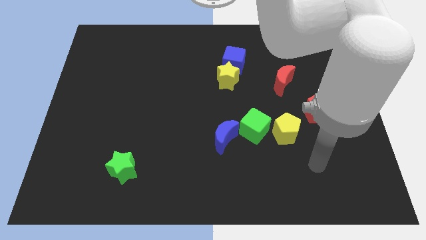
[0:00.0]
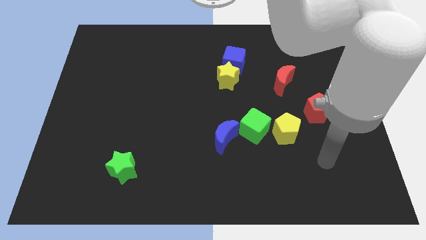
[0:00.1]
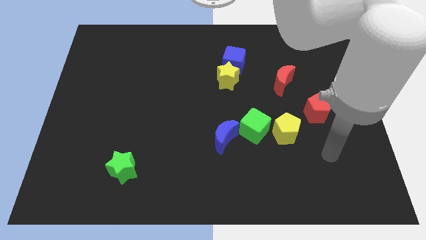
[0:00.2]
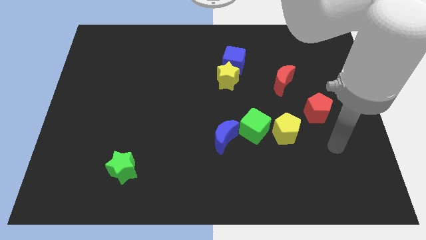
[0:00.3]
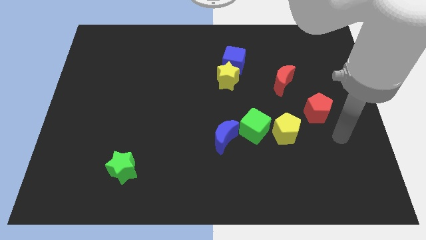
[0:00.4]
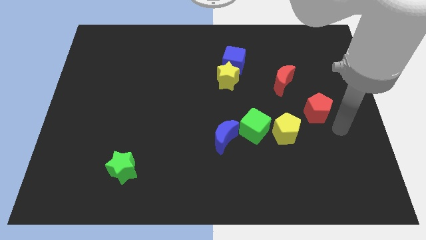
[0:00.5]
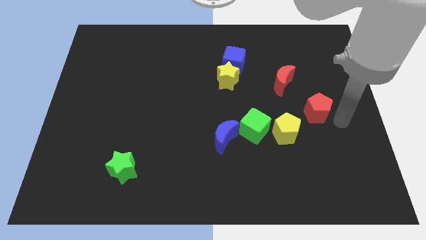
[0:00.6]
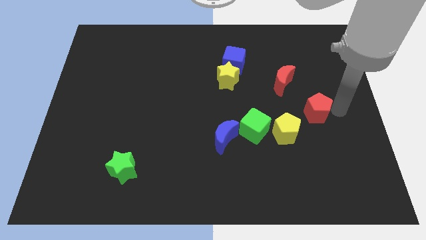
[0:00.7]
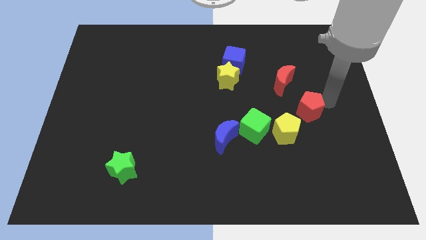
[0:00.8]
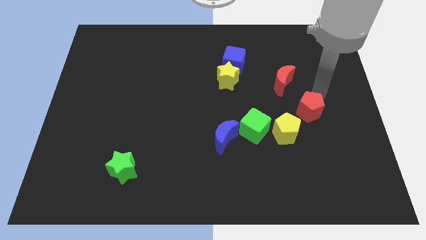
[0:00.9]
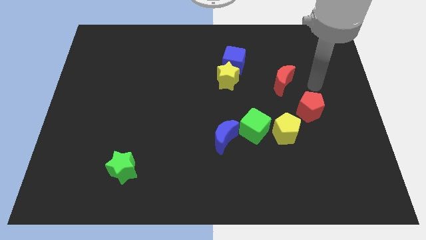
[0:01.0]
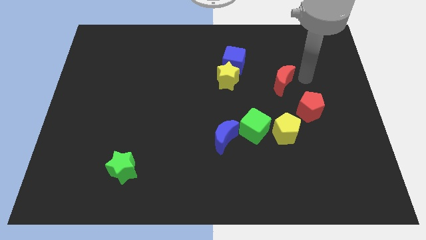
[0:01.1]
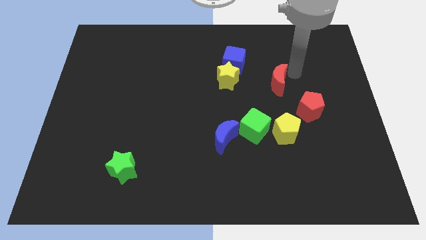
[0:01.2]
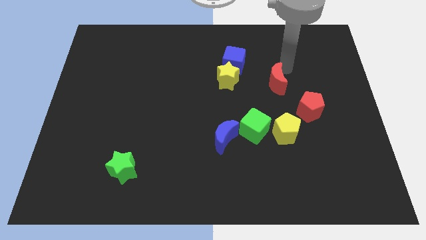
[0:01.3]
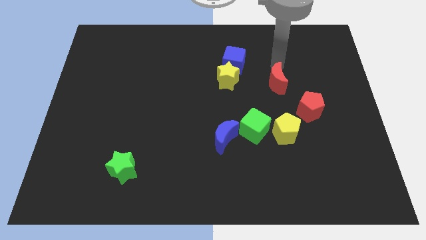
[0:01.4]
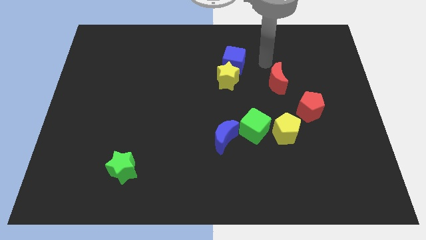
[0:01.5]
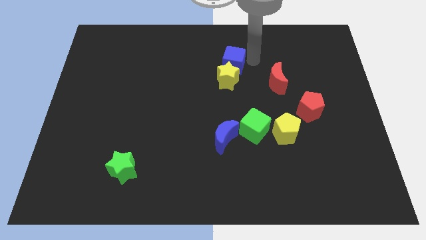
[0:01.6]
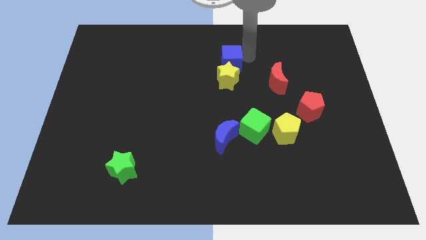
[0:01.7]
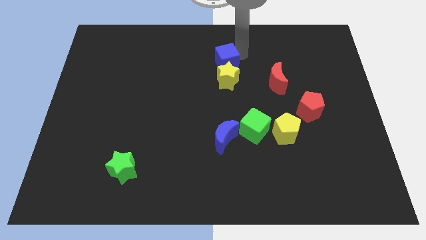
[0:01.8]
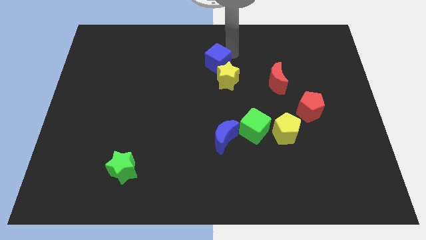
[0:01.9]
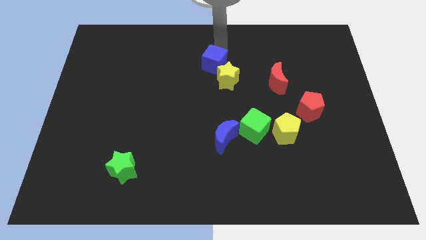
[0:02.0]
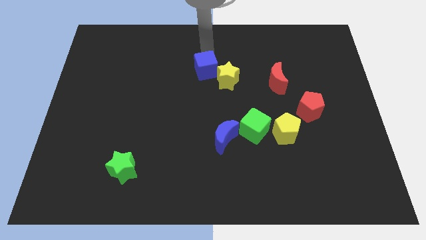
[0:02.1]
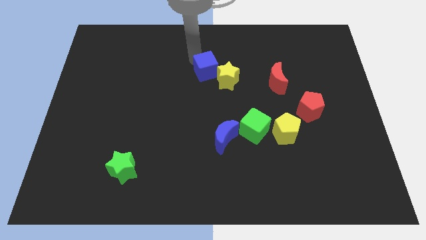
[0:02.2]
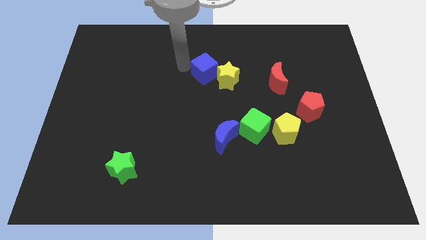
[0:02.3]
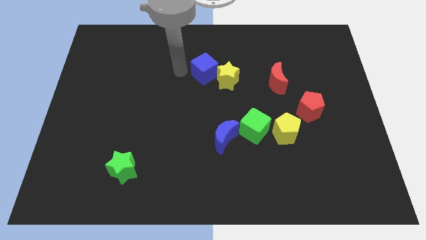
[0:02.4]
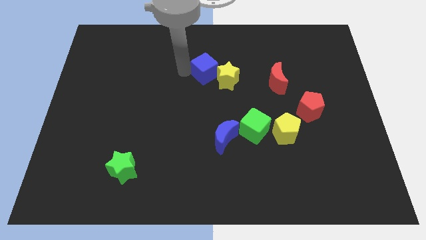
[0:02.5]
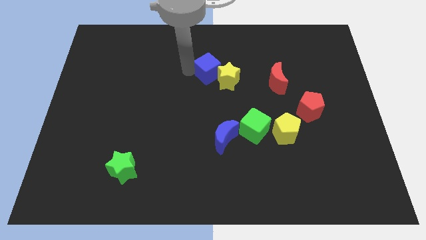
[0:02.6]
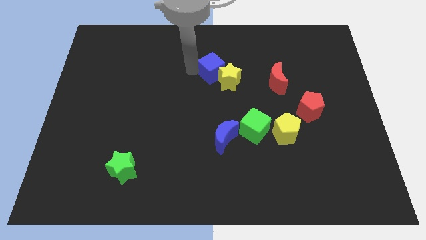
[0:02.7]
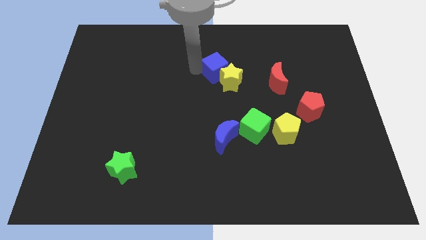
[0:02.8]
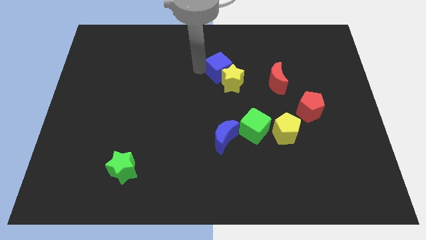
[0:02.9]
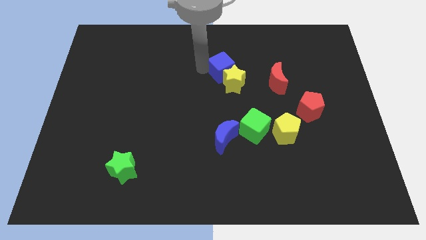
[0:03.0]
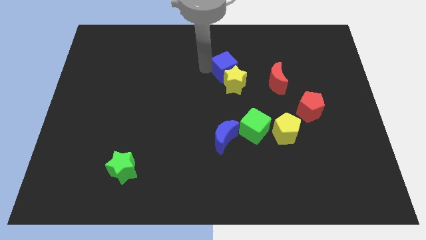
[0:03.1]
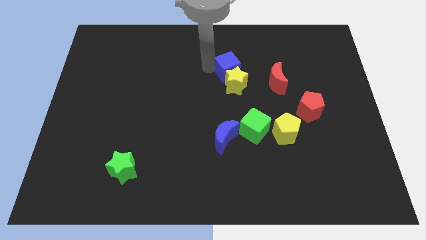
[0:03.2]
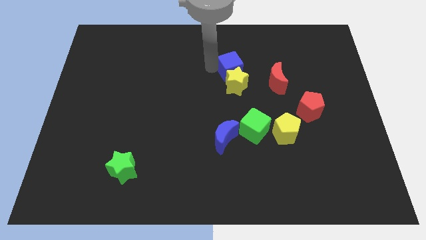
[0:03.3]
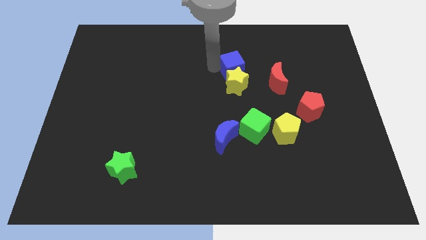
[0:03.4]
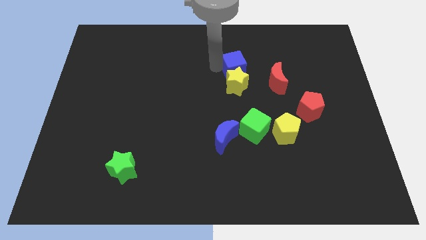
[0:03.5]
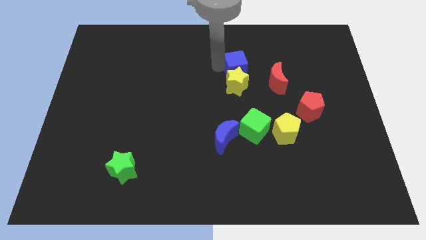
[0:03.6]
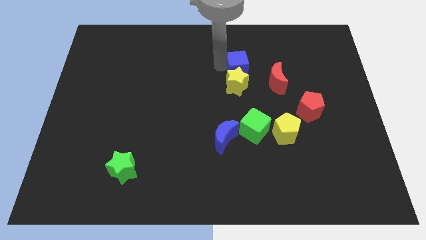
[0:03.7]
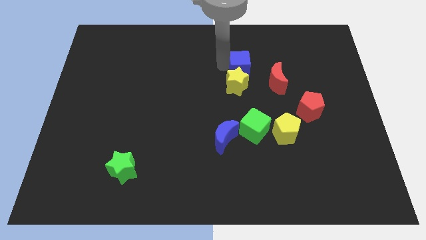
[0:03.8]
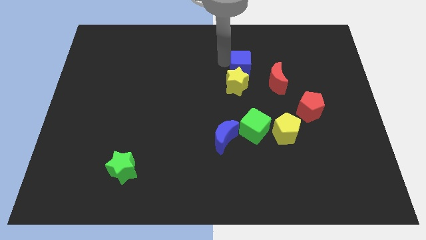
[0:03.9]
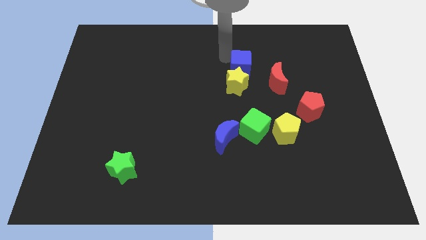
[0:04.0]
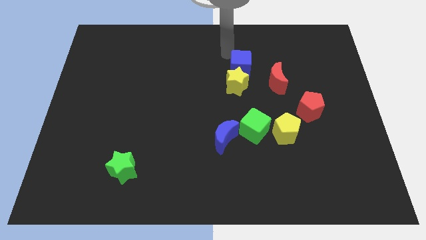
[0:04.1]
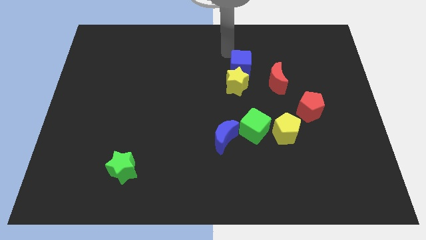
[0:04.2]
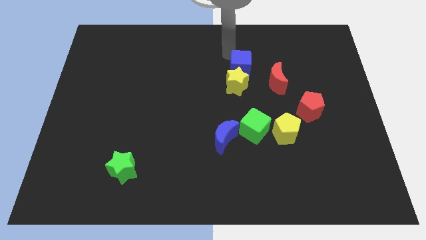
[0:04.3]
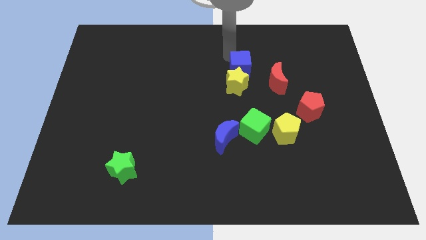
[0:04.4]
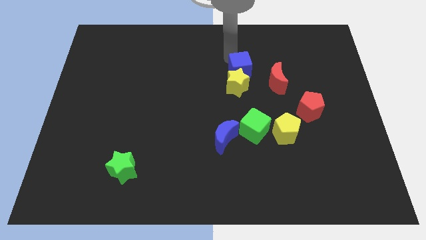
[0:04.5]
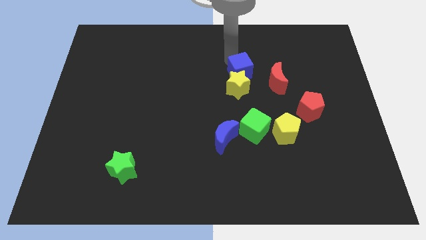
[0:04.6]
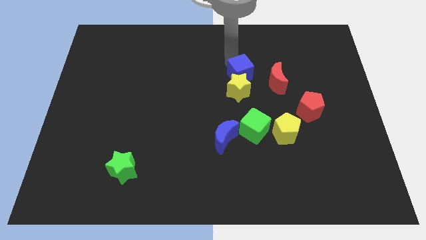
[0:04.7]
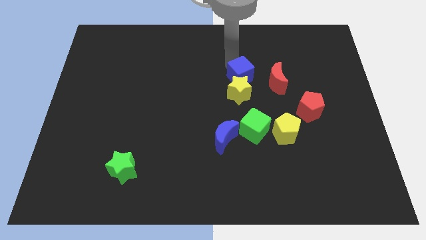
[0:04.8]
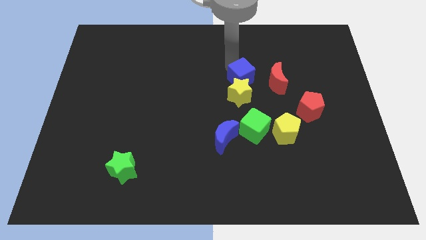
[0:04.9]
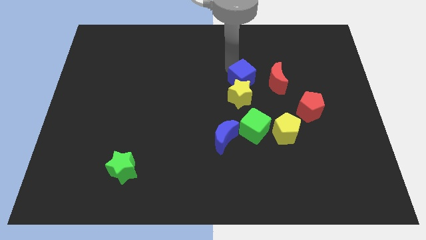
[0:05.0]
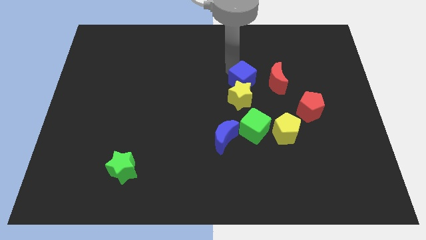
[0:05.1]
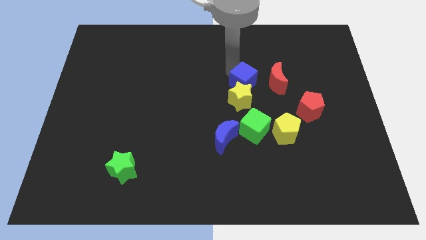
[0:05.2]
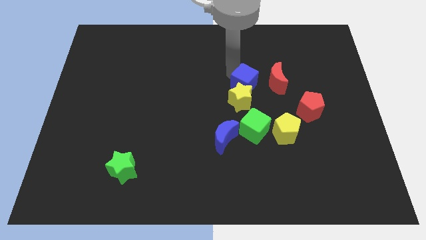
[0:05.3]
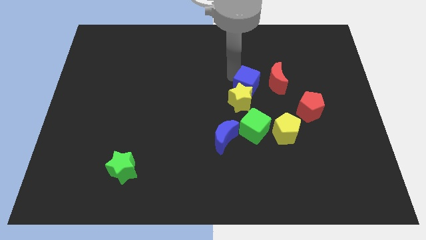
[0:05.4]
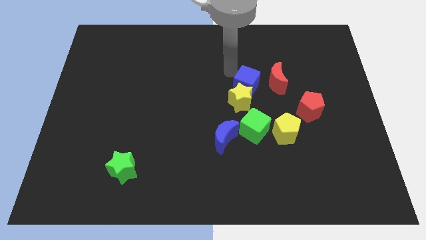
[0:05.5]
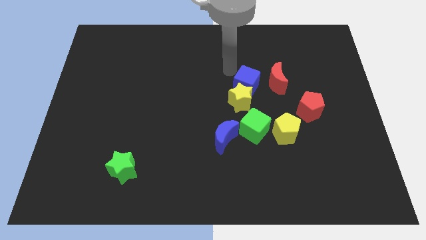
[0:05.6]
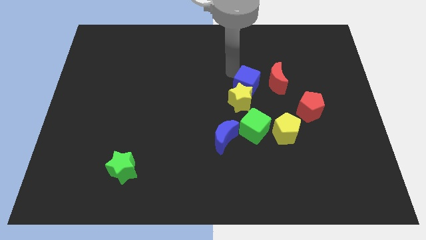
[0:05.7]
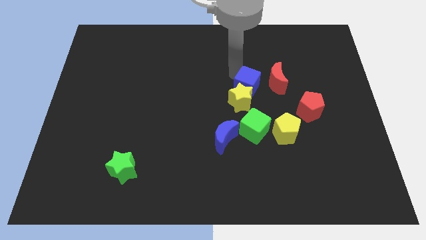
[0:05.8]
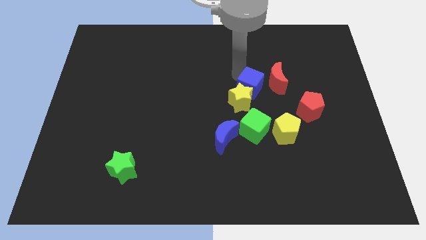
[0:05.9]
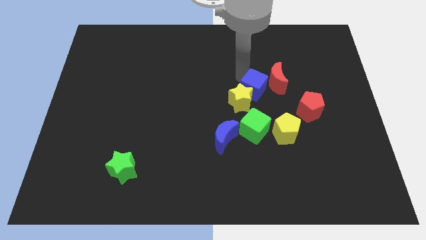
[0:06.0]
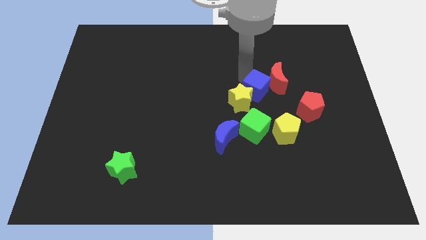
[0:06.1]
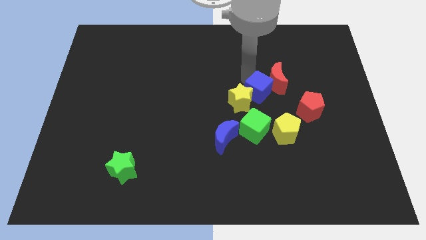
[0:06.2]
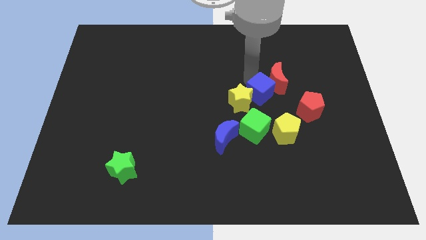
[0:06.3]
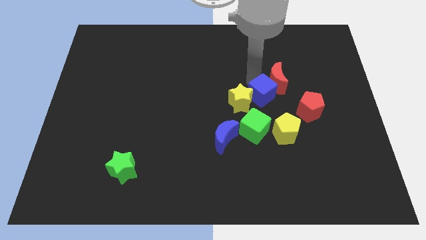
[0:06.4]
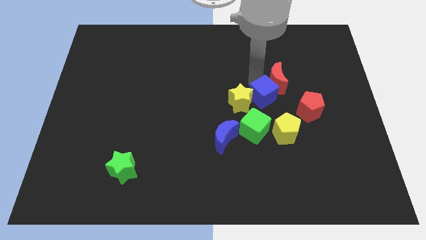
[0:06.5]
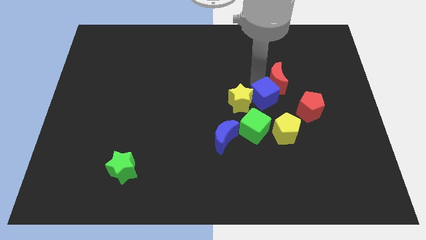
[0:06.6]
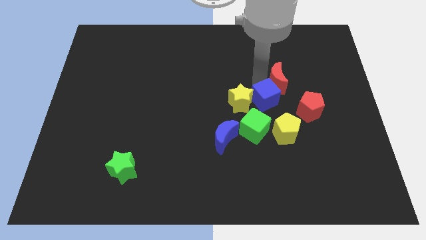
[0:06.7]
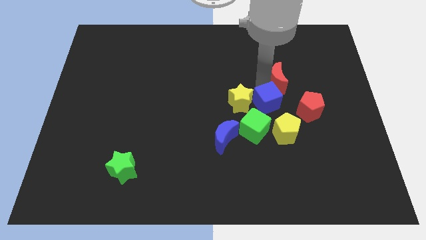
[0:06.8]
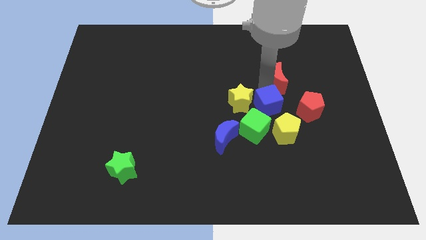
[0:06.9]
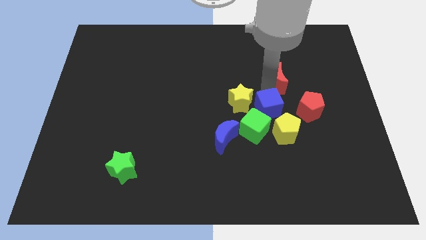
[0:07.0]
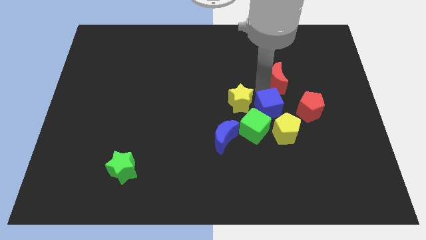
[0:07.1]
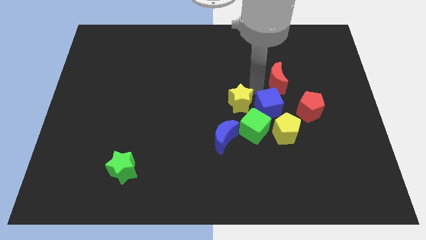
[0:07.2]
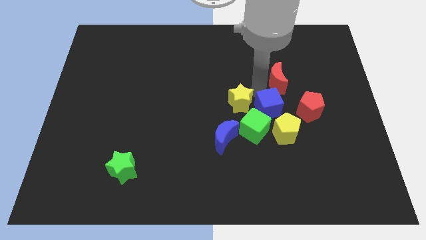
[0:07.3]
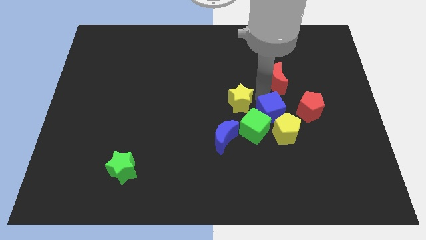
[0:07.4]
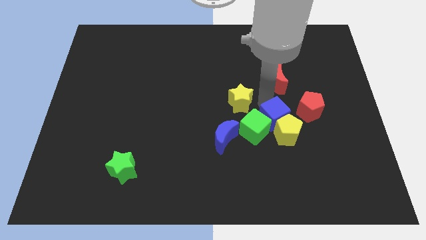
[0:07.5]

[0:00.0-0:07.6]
slide the blue cube next to the yellow pentagon
